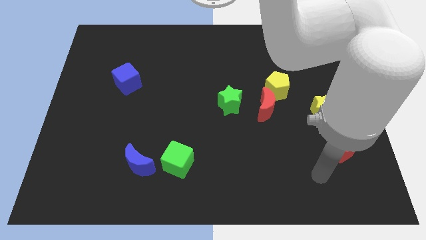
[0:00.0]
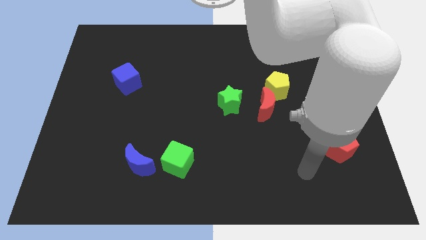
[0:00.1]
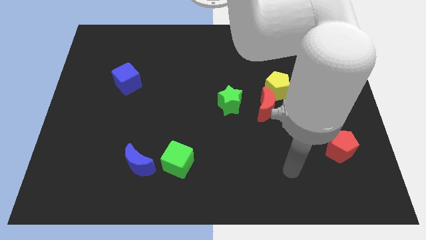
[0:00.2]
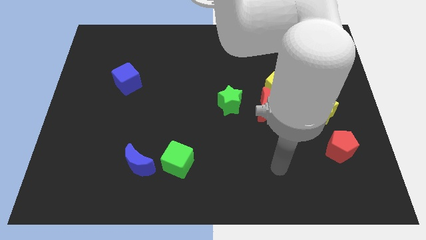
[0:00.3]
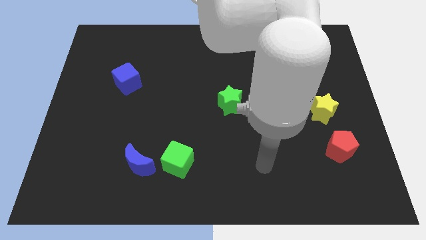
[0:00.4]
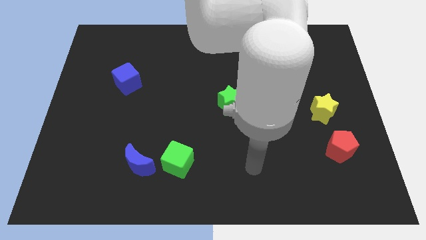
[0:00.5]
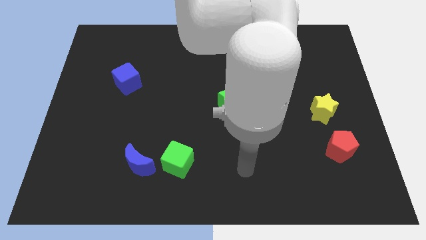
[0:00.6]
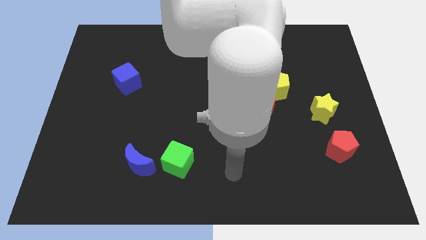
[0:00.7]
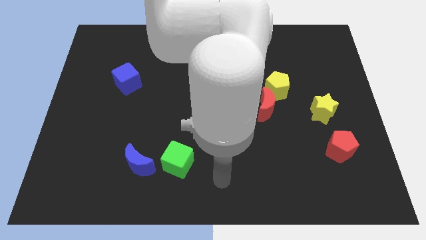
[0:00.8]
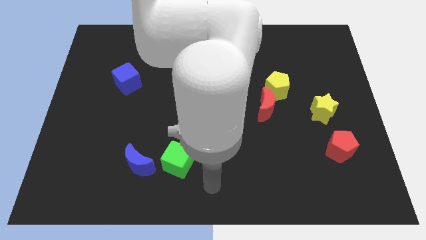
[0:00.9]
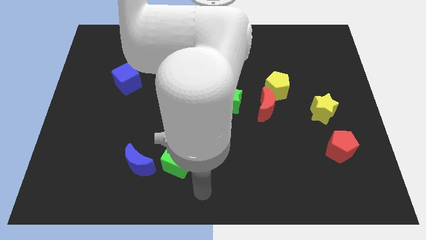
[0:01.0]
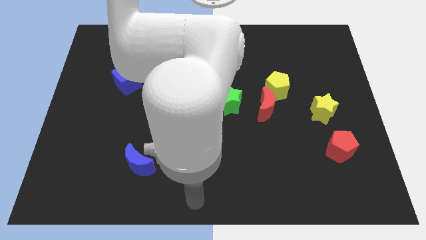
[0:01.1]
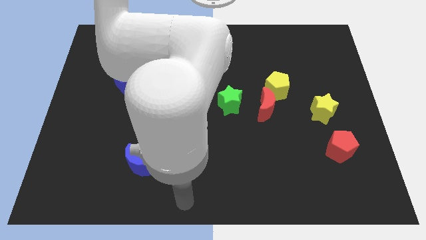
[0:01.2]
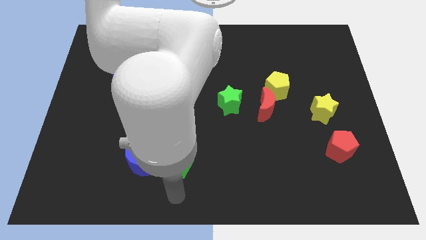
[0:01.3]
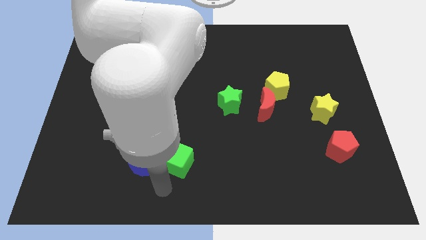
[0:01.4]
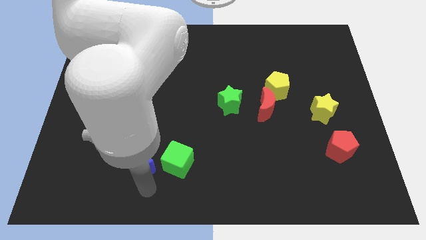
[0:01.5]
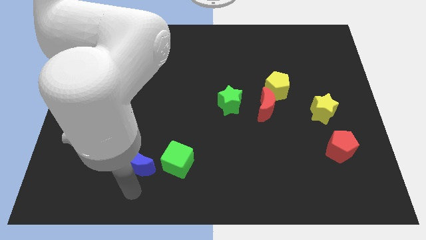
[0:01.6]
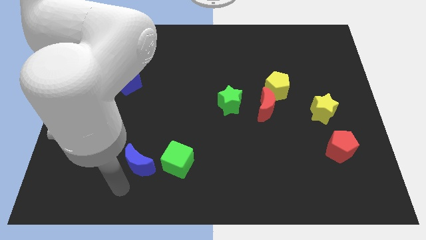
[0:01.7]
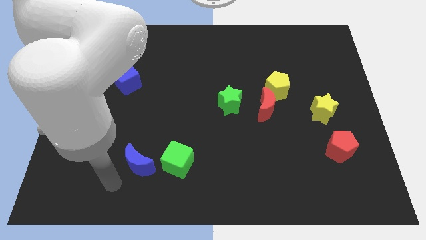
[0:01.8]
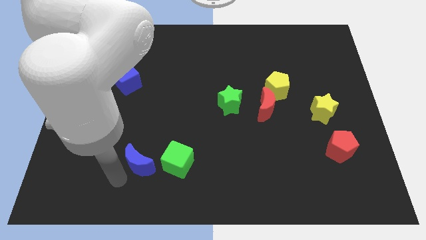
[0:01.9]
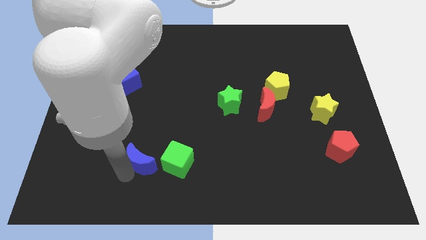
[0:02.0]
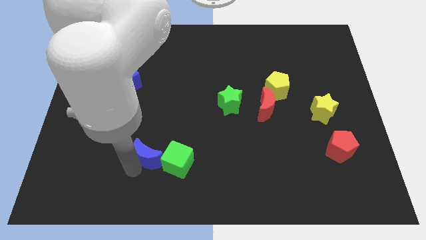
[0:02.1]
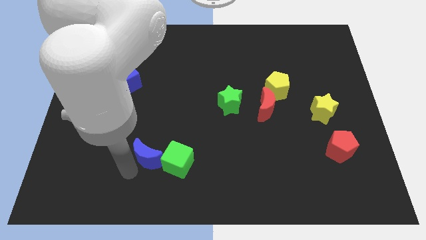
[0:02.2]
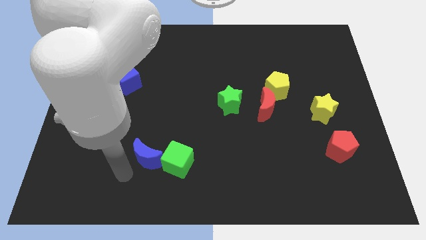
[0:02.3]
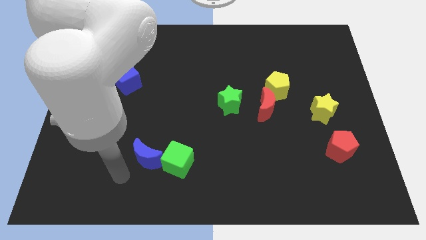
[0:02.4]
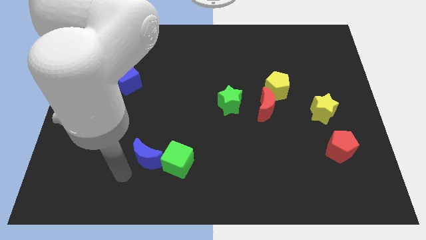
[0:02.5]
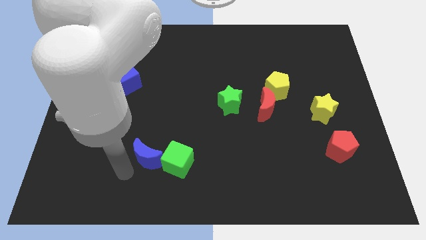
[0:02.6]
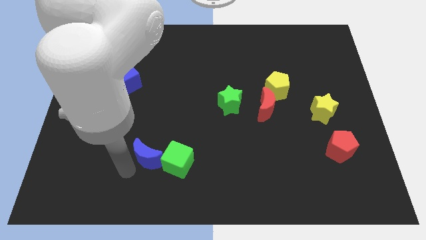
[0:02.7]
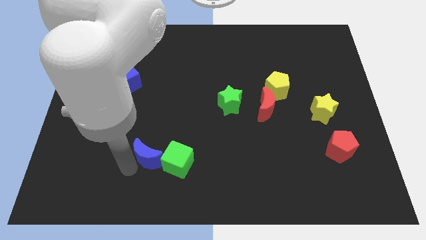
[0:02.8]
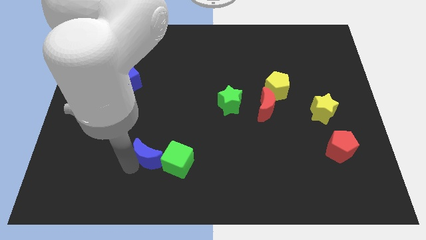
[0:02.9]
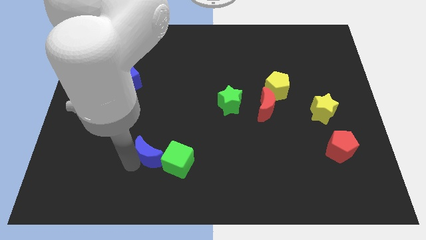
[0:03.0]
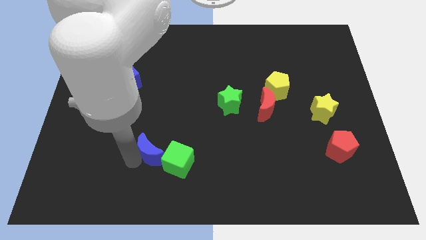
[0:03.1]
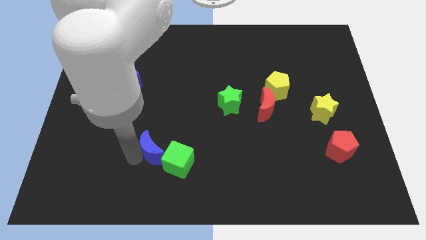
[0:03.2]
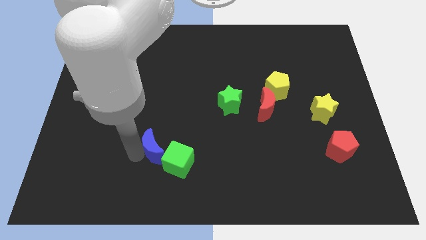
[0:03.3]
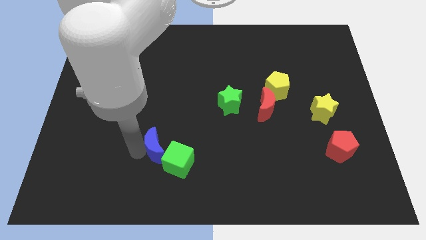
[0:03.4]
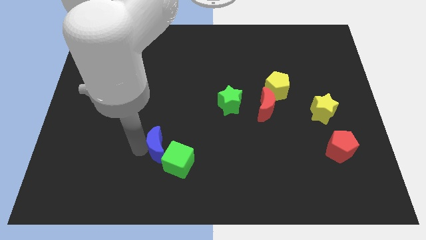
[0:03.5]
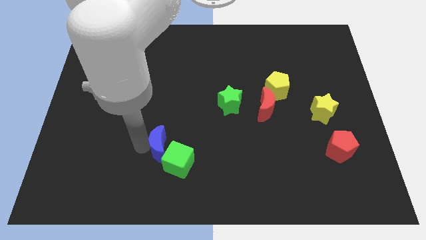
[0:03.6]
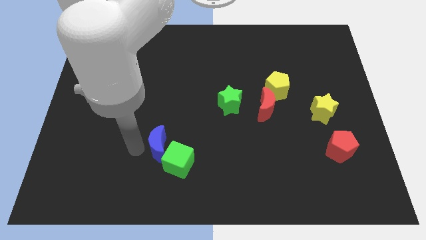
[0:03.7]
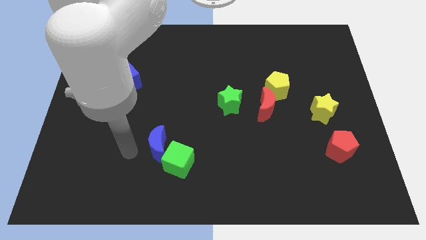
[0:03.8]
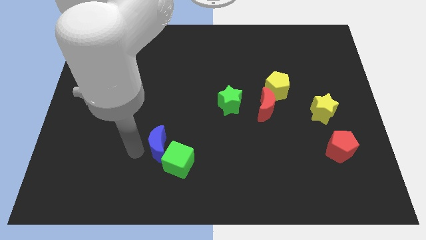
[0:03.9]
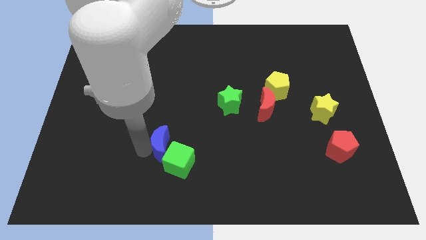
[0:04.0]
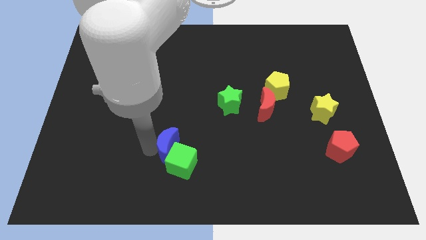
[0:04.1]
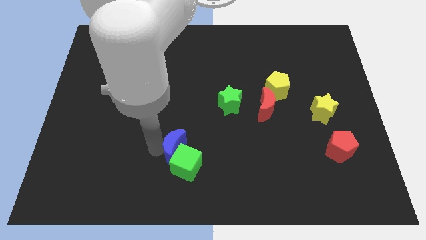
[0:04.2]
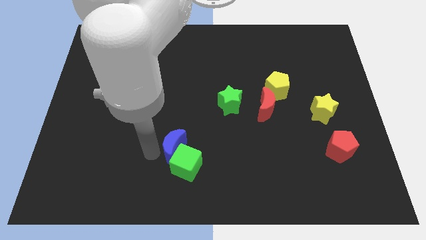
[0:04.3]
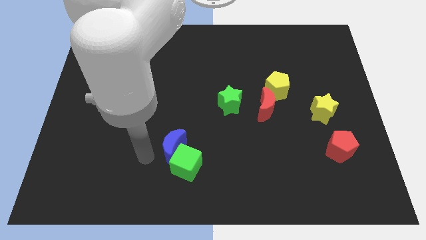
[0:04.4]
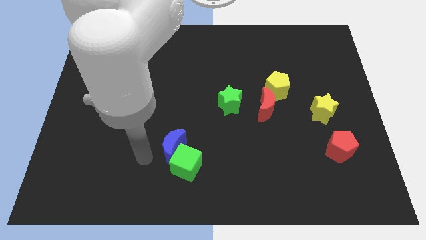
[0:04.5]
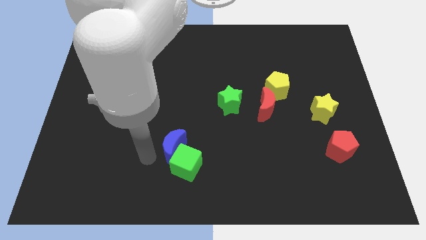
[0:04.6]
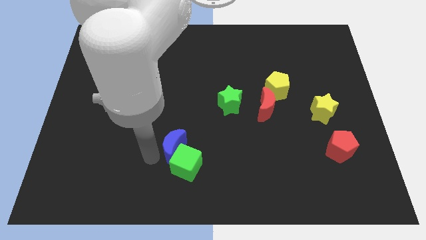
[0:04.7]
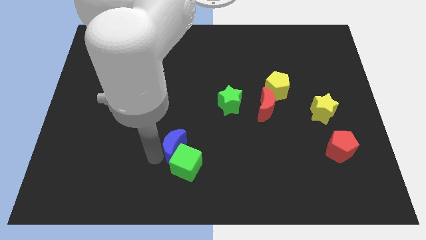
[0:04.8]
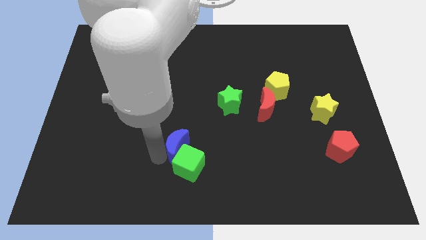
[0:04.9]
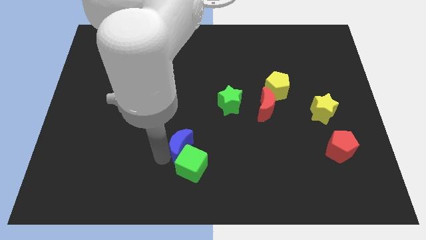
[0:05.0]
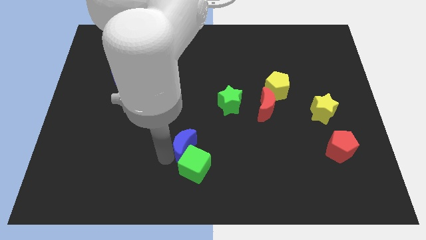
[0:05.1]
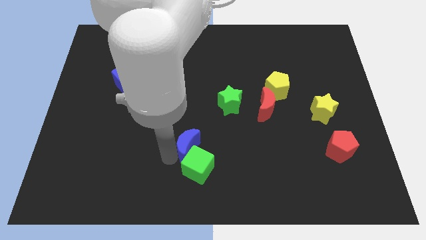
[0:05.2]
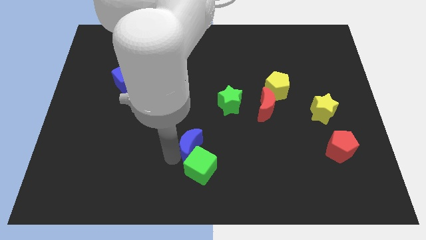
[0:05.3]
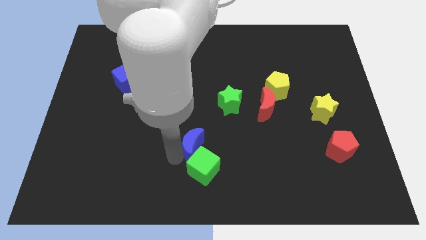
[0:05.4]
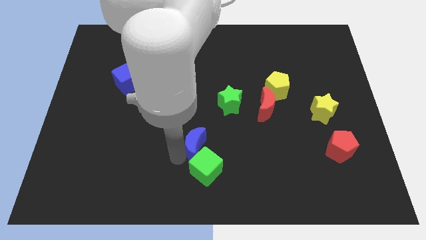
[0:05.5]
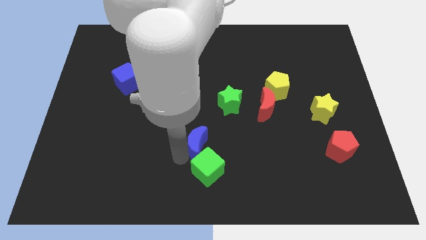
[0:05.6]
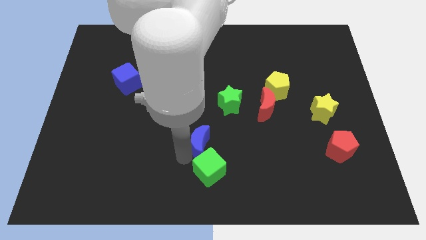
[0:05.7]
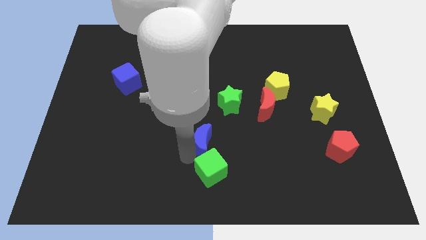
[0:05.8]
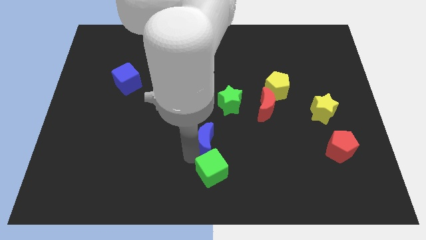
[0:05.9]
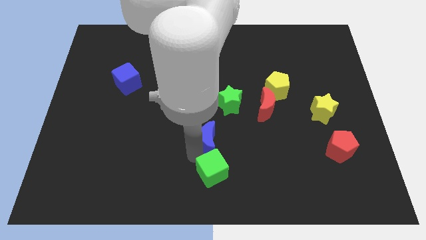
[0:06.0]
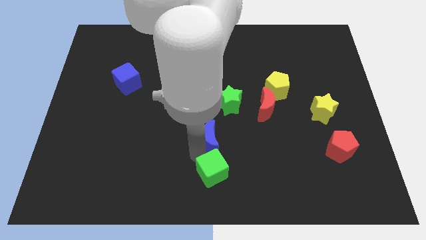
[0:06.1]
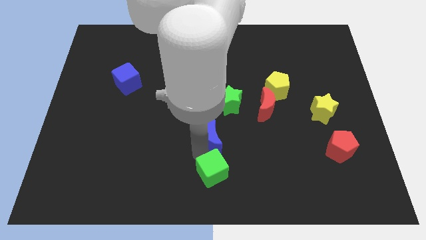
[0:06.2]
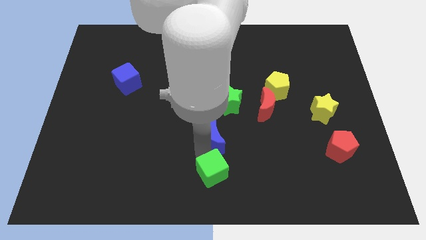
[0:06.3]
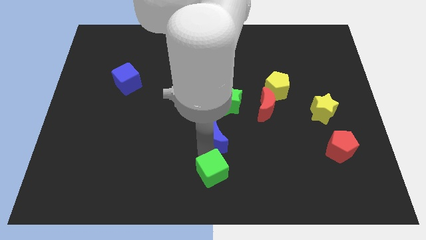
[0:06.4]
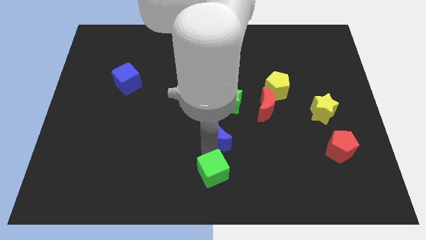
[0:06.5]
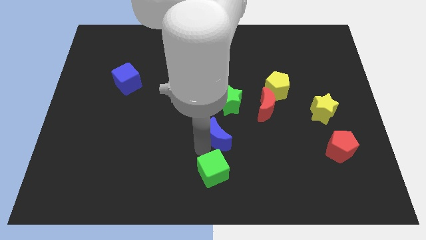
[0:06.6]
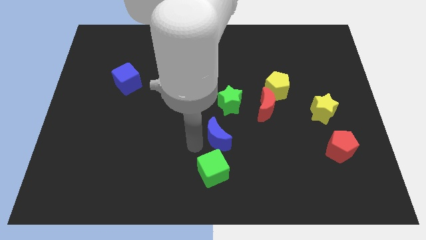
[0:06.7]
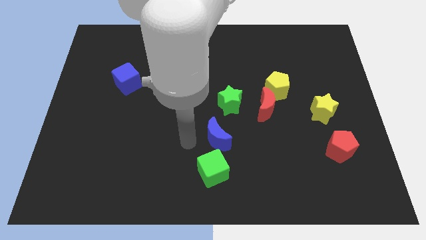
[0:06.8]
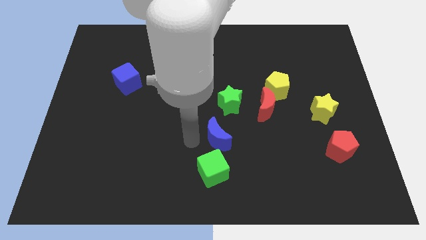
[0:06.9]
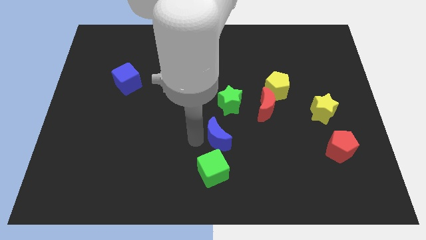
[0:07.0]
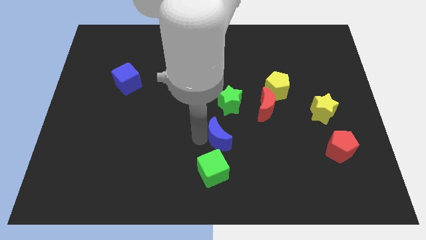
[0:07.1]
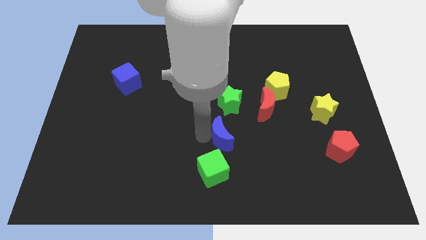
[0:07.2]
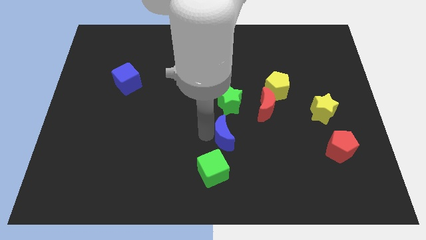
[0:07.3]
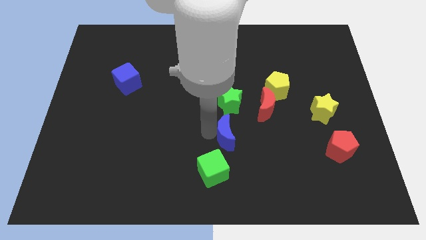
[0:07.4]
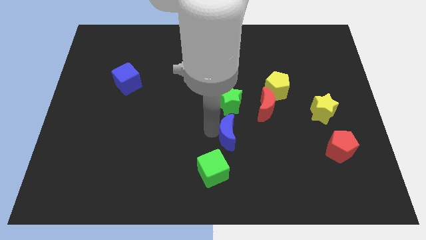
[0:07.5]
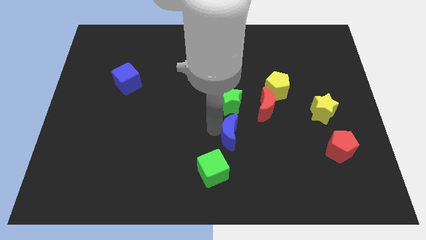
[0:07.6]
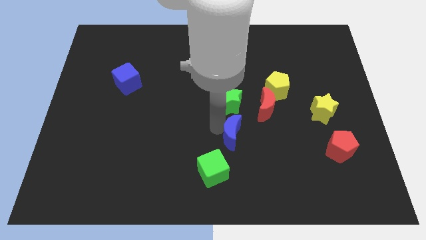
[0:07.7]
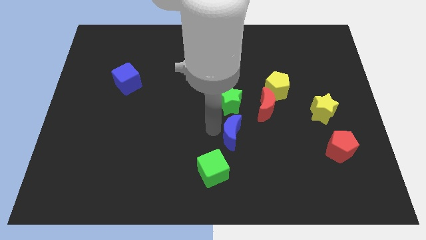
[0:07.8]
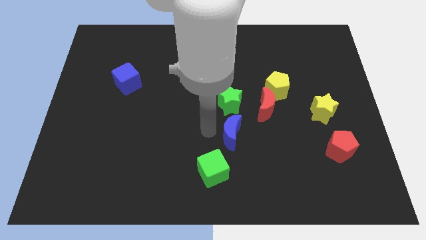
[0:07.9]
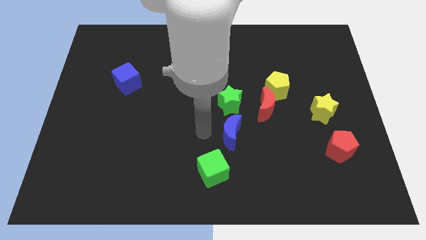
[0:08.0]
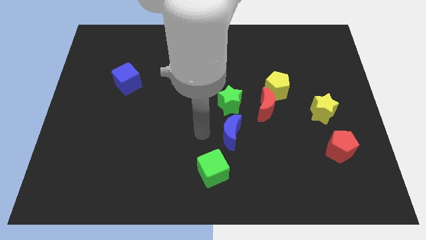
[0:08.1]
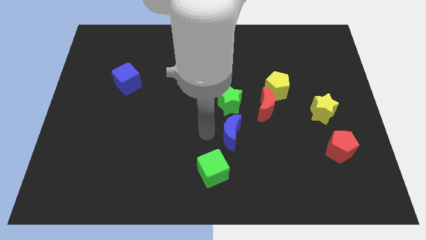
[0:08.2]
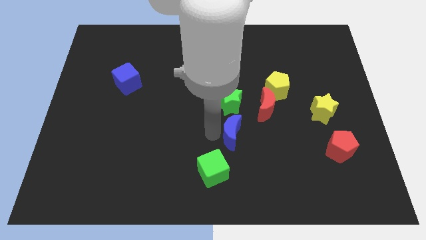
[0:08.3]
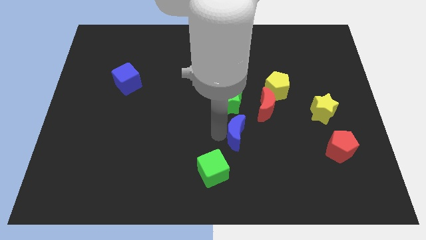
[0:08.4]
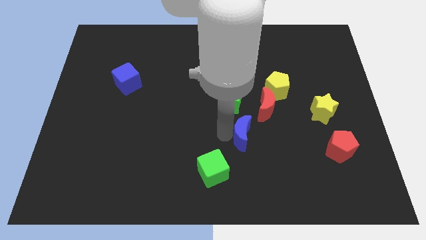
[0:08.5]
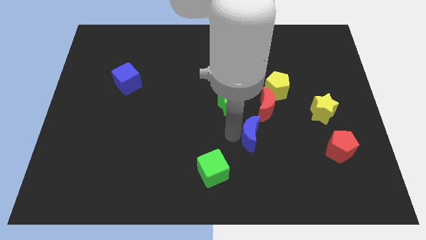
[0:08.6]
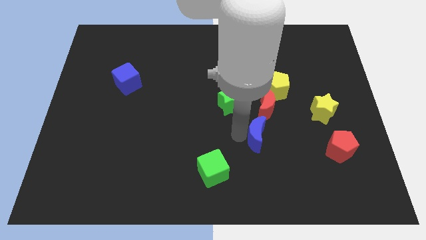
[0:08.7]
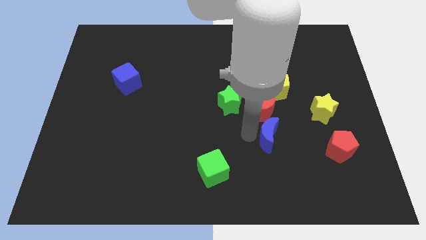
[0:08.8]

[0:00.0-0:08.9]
slide the blue moon to the left of the red pentagon
